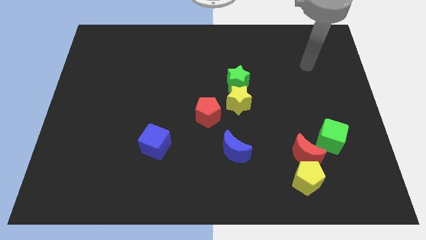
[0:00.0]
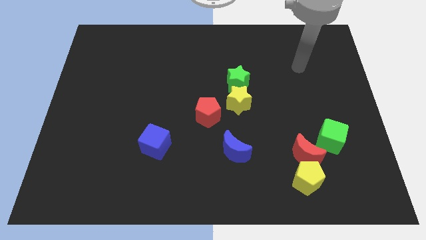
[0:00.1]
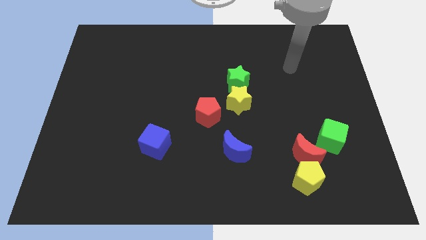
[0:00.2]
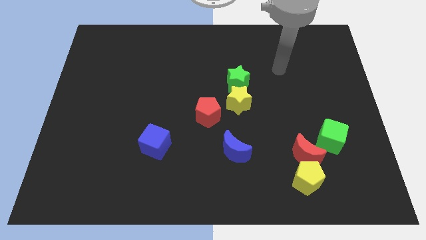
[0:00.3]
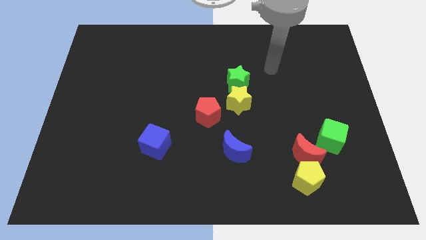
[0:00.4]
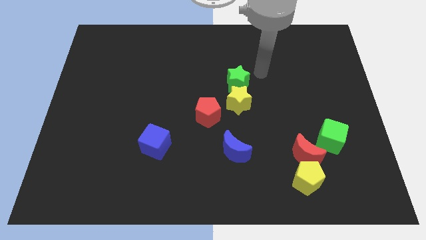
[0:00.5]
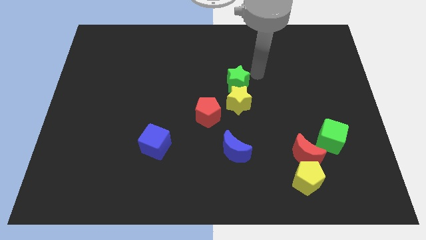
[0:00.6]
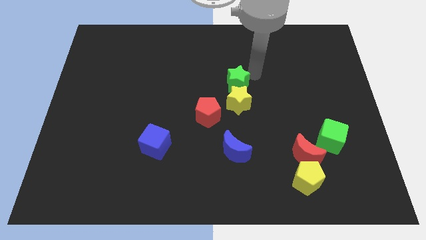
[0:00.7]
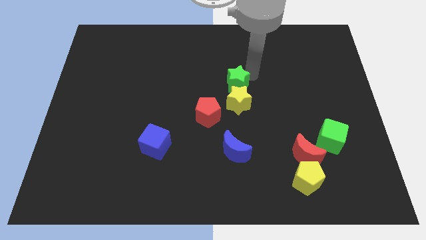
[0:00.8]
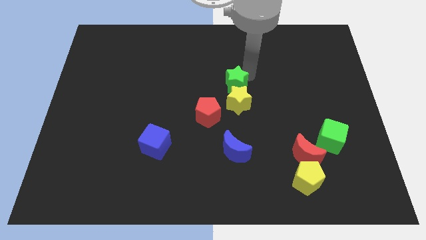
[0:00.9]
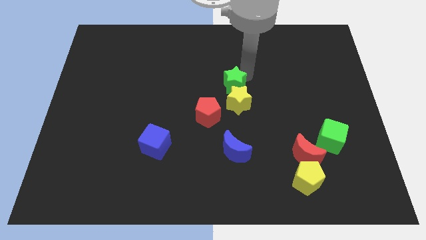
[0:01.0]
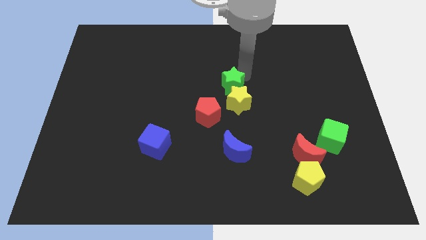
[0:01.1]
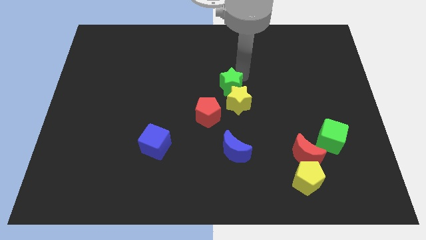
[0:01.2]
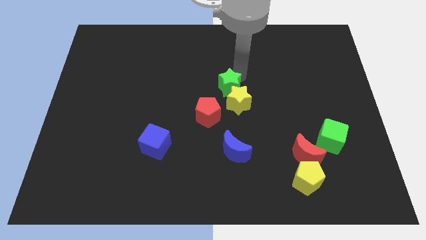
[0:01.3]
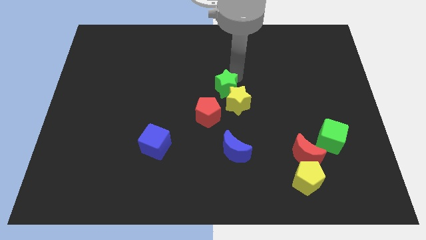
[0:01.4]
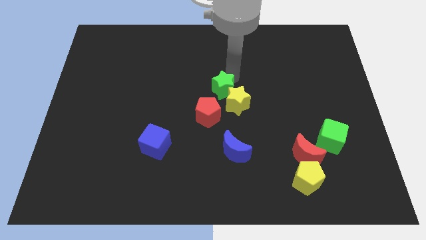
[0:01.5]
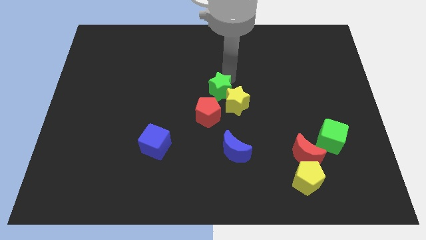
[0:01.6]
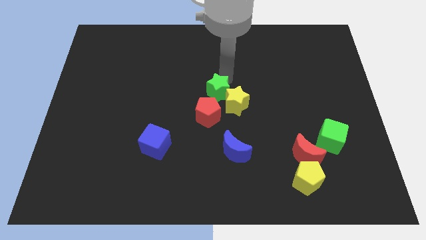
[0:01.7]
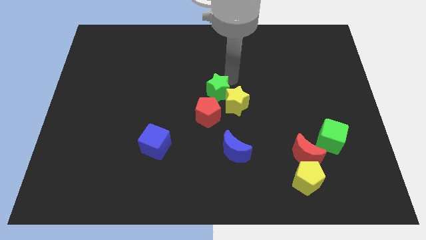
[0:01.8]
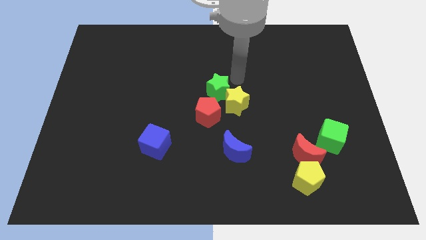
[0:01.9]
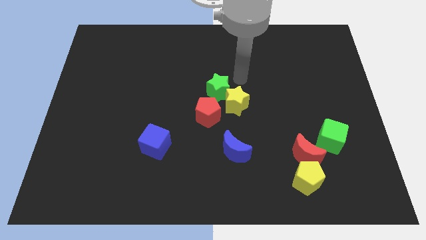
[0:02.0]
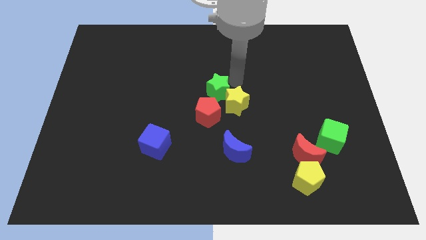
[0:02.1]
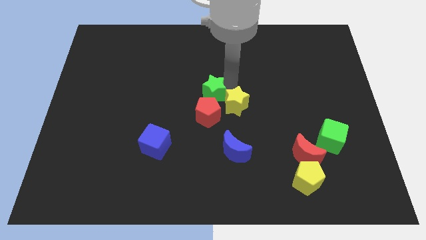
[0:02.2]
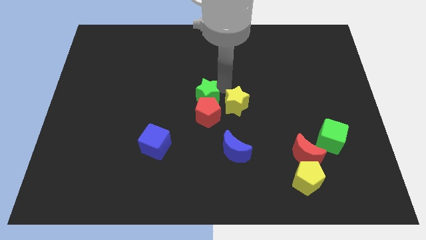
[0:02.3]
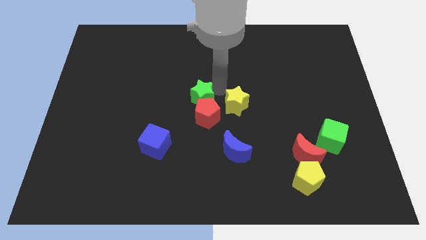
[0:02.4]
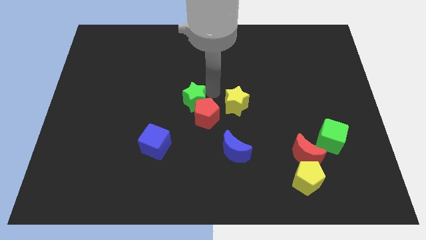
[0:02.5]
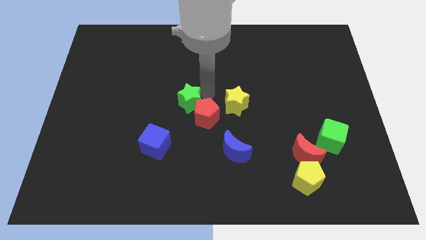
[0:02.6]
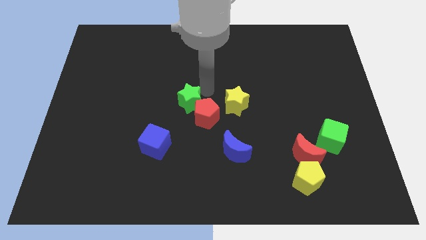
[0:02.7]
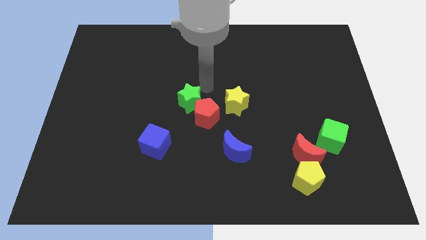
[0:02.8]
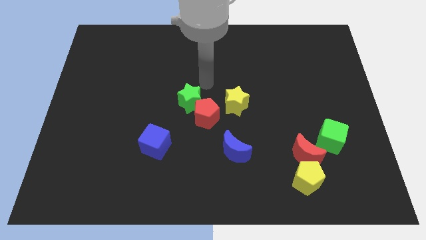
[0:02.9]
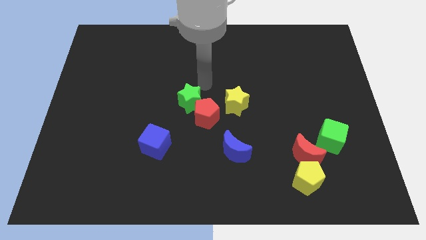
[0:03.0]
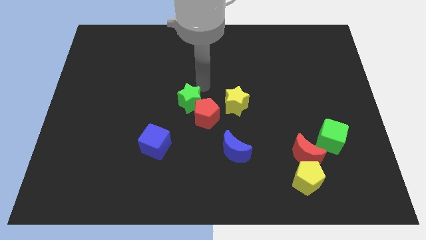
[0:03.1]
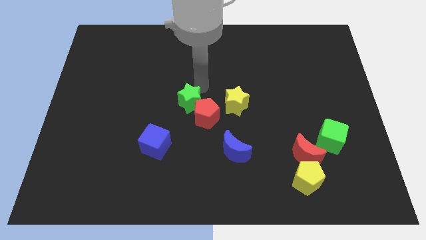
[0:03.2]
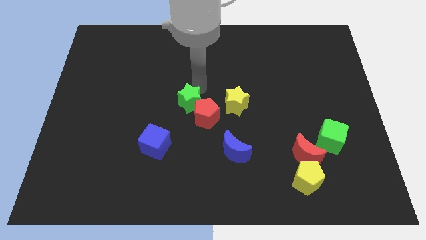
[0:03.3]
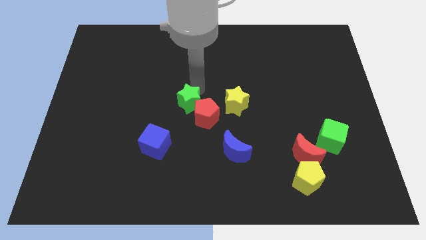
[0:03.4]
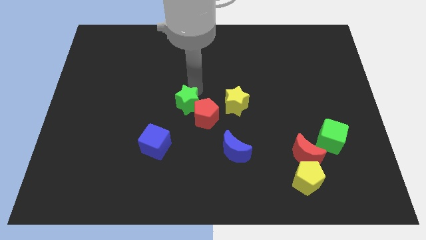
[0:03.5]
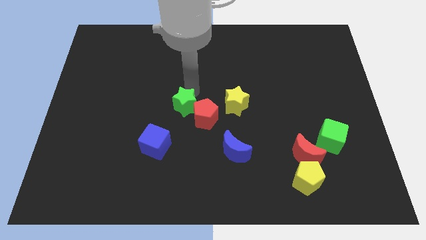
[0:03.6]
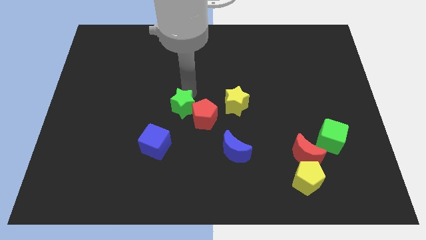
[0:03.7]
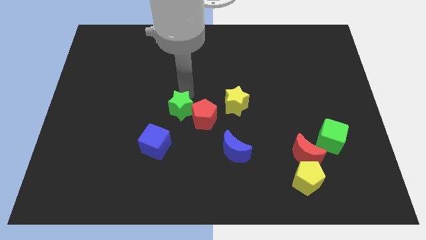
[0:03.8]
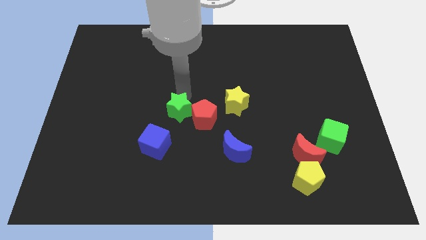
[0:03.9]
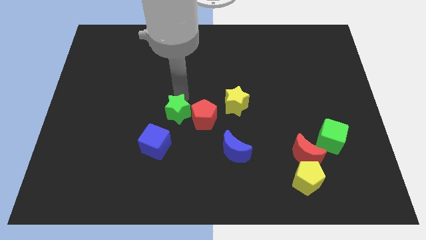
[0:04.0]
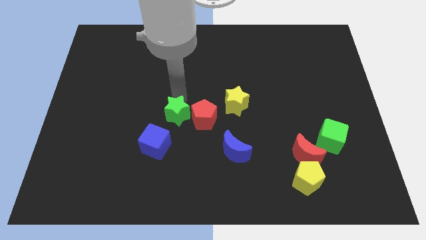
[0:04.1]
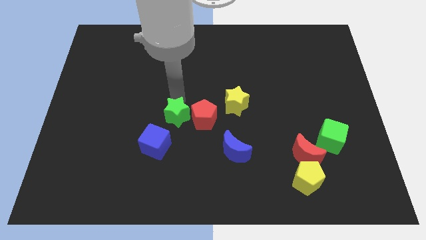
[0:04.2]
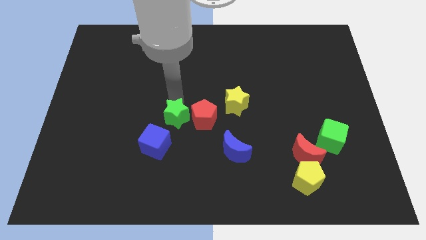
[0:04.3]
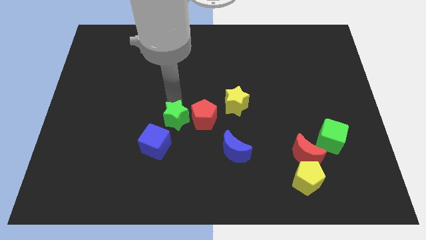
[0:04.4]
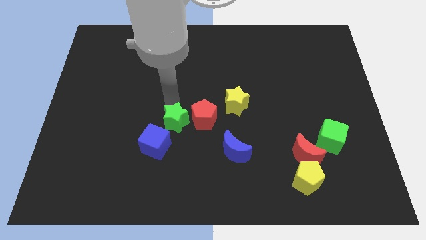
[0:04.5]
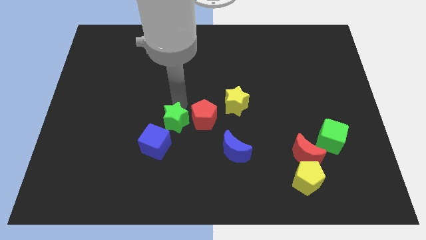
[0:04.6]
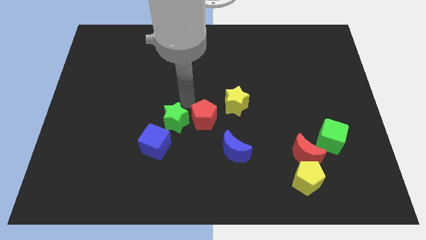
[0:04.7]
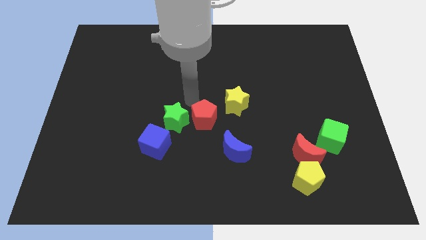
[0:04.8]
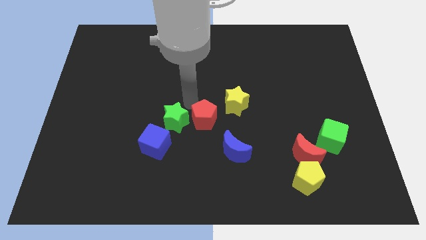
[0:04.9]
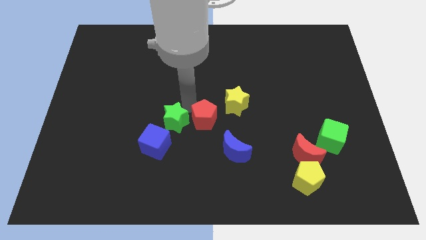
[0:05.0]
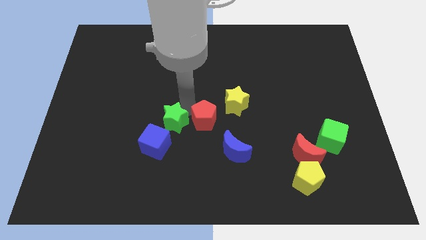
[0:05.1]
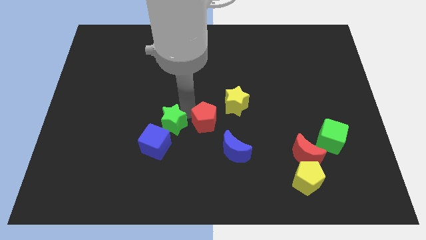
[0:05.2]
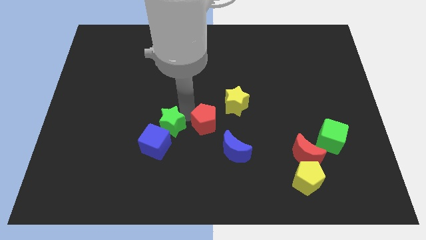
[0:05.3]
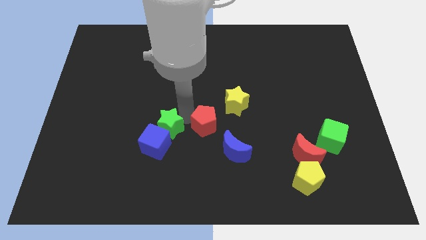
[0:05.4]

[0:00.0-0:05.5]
slide the green star close to the blue cube

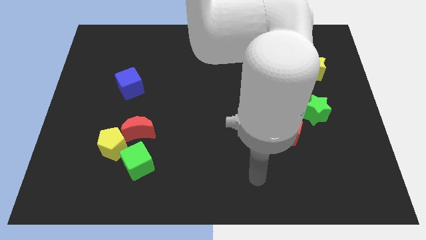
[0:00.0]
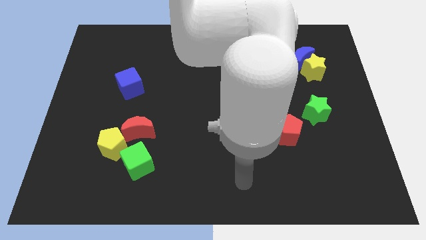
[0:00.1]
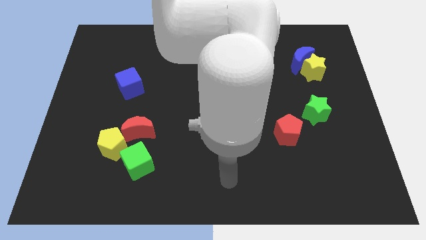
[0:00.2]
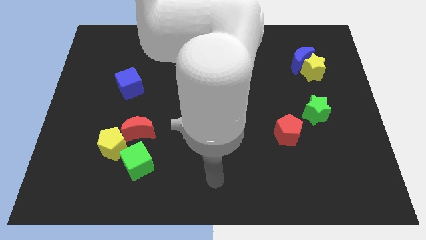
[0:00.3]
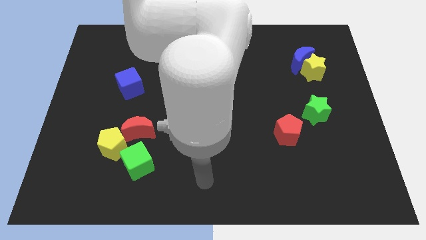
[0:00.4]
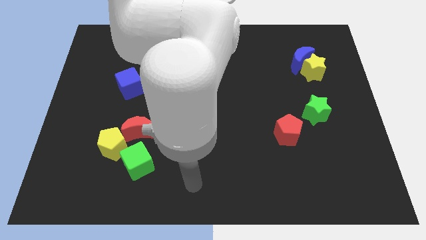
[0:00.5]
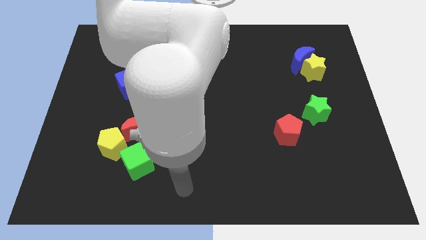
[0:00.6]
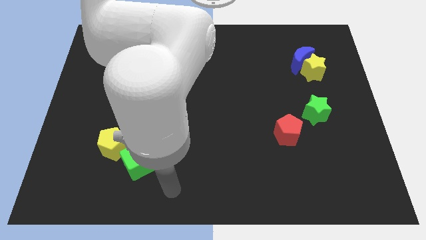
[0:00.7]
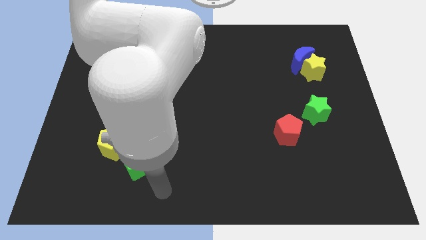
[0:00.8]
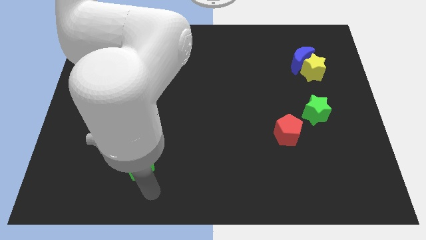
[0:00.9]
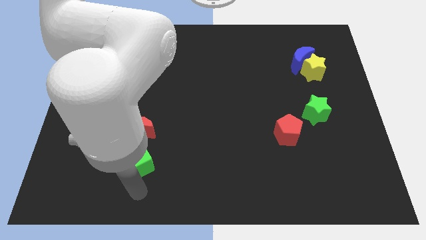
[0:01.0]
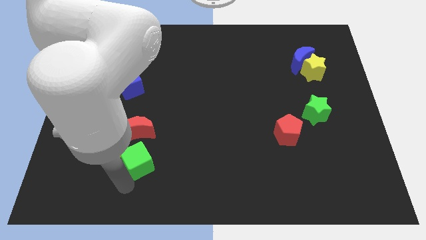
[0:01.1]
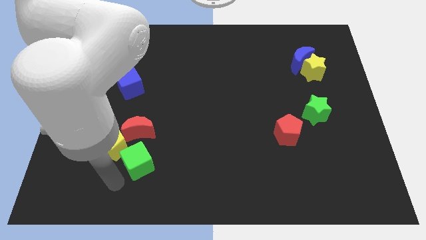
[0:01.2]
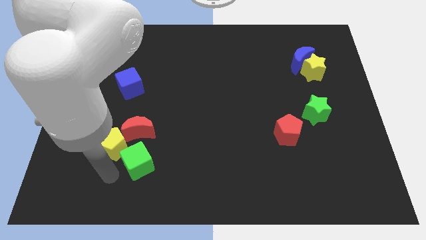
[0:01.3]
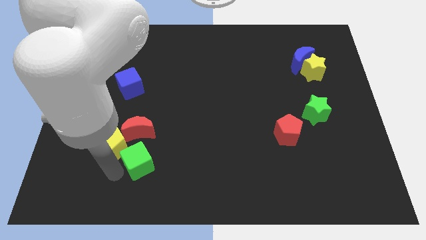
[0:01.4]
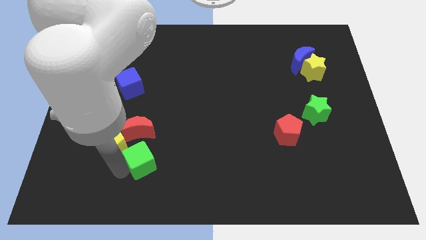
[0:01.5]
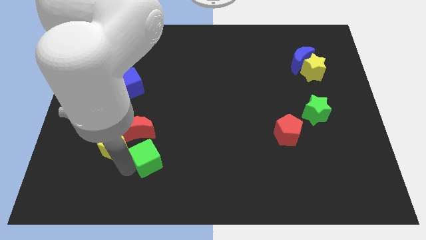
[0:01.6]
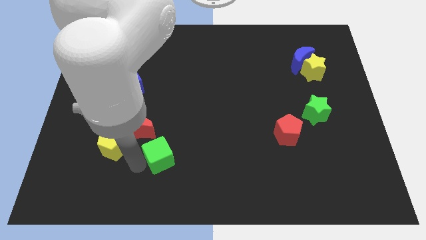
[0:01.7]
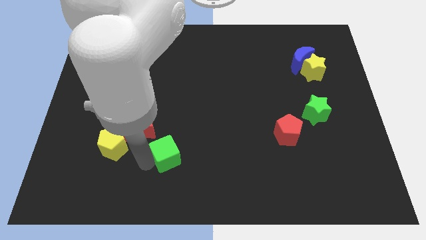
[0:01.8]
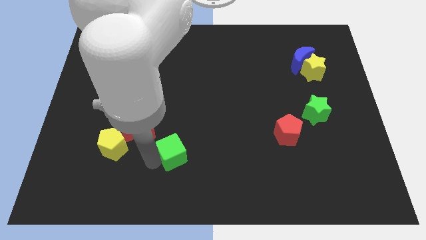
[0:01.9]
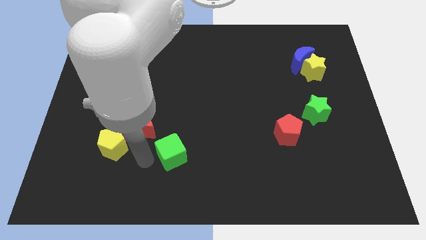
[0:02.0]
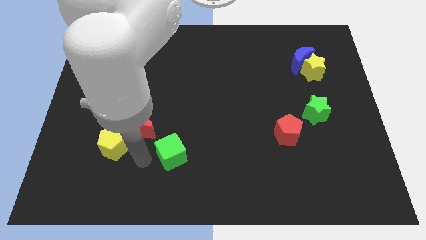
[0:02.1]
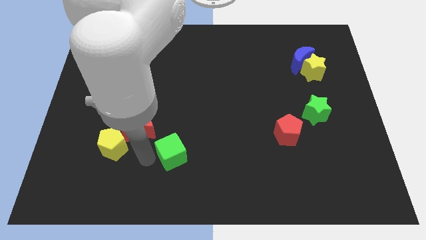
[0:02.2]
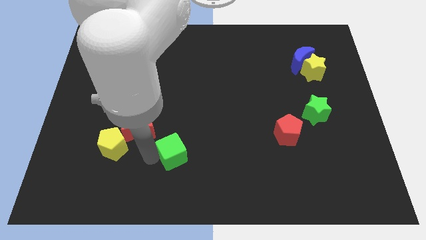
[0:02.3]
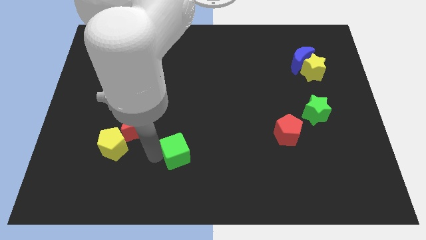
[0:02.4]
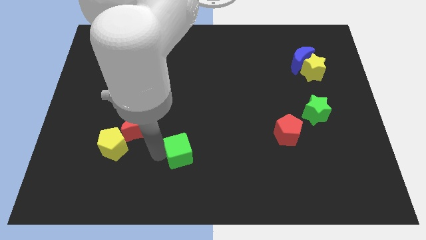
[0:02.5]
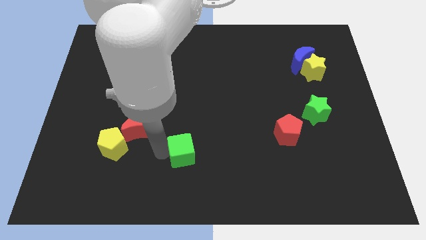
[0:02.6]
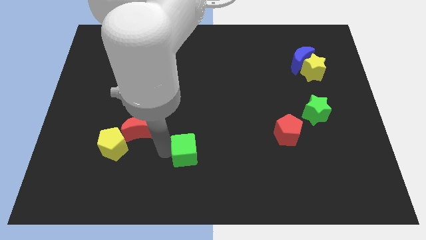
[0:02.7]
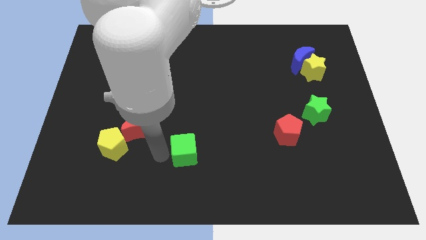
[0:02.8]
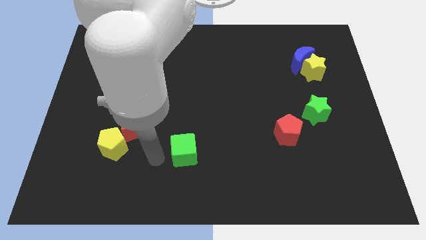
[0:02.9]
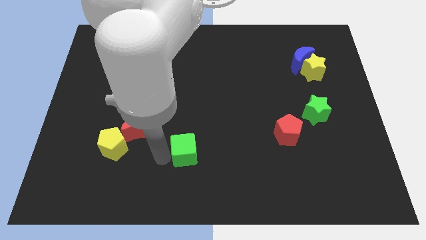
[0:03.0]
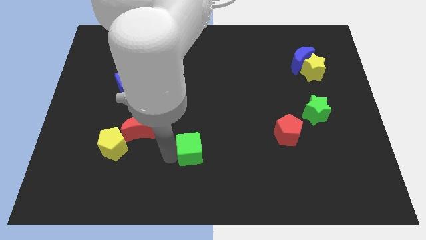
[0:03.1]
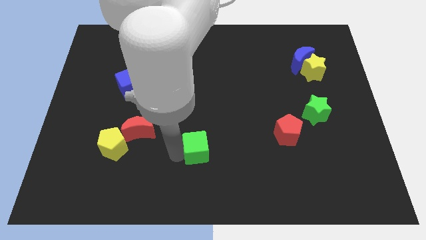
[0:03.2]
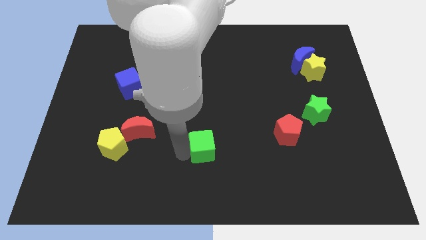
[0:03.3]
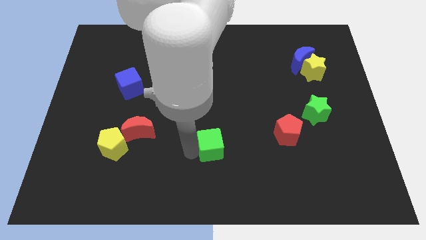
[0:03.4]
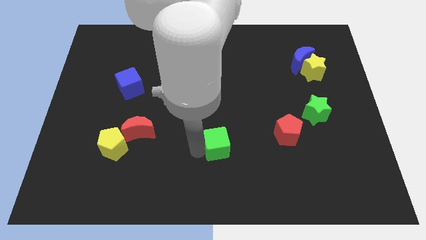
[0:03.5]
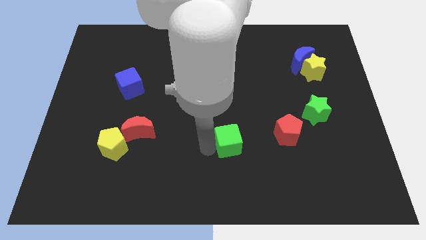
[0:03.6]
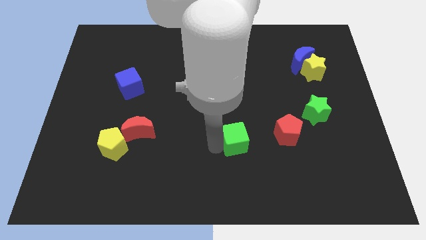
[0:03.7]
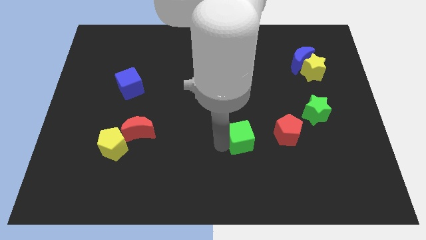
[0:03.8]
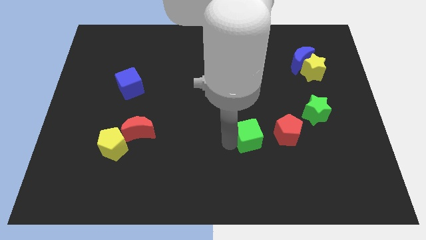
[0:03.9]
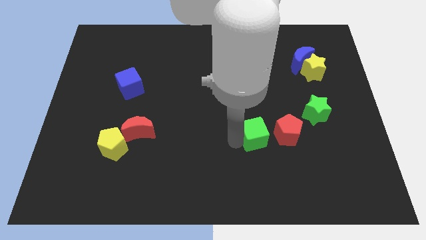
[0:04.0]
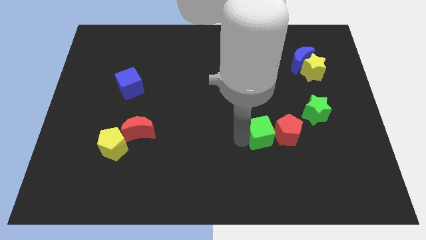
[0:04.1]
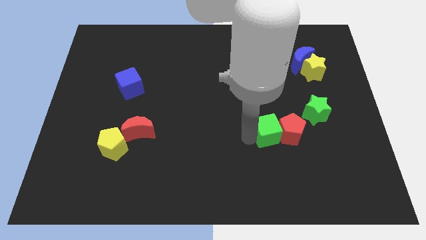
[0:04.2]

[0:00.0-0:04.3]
slide the green cube close to the red pentagon
